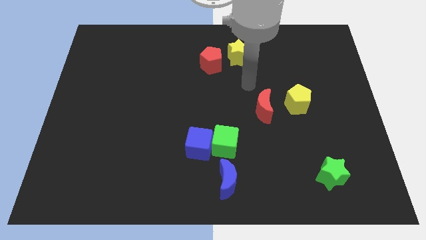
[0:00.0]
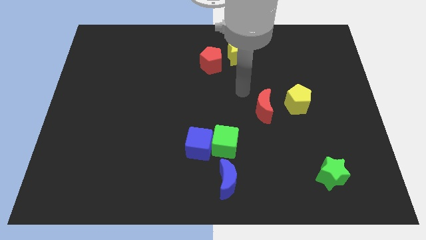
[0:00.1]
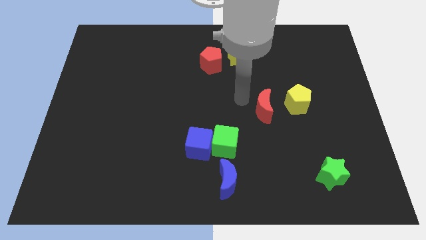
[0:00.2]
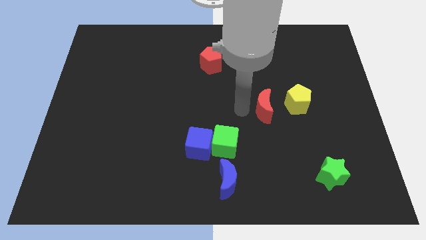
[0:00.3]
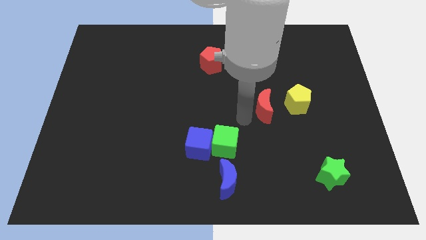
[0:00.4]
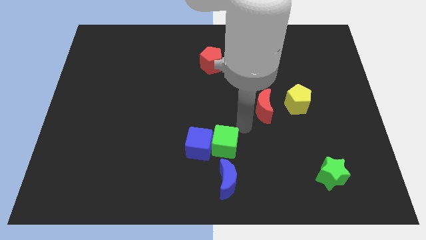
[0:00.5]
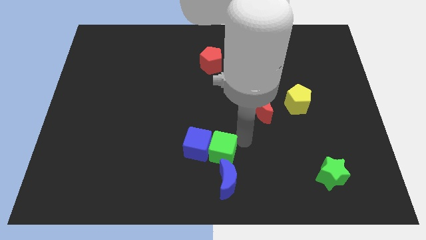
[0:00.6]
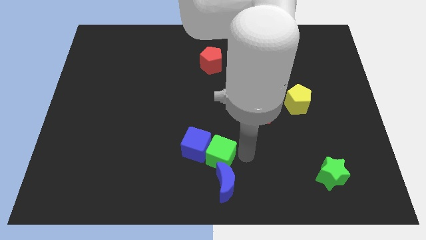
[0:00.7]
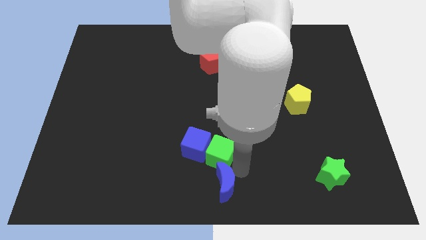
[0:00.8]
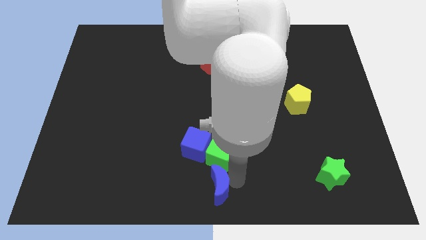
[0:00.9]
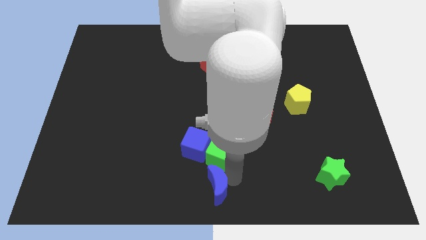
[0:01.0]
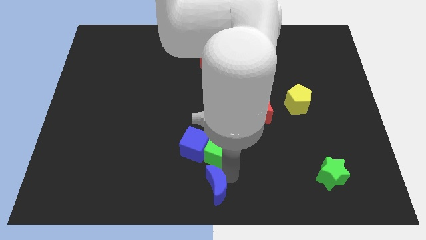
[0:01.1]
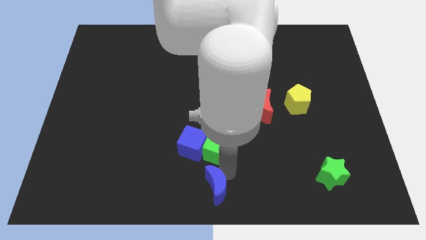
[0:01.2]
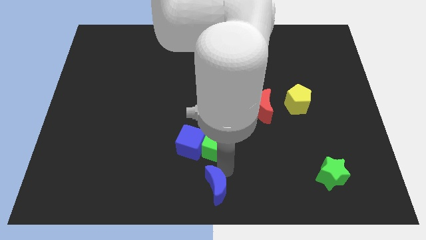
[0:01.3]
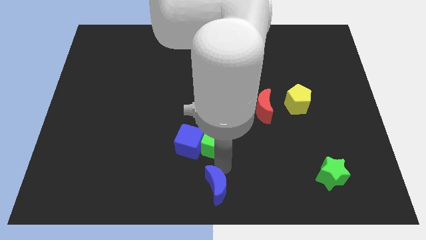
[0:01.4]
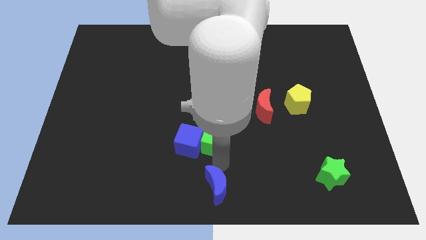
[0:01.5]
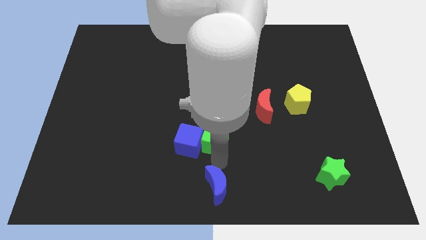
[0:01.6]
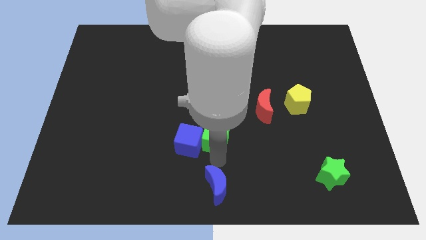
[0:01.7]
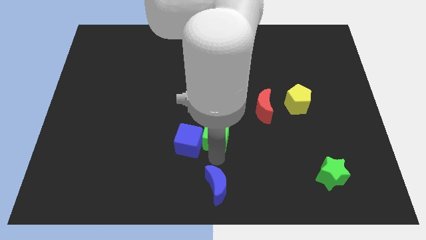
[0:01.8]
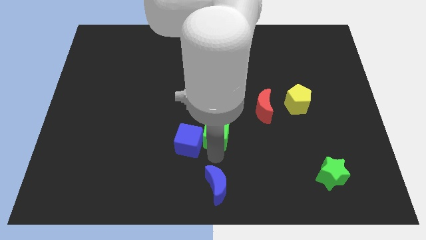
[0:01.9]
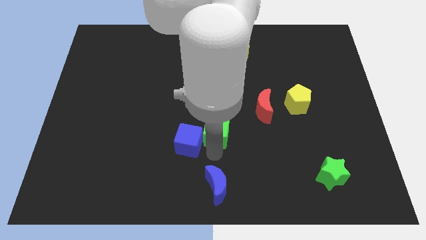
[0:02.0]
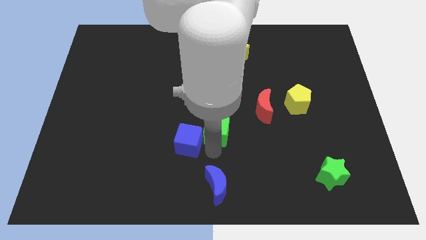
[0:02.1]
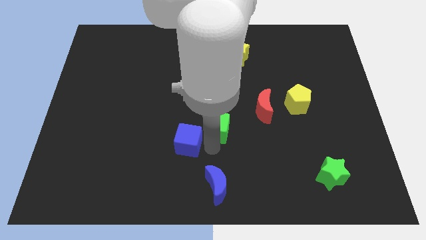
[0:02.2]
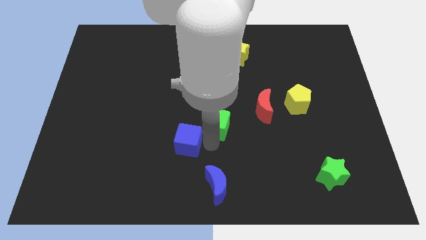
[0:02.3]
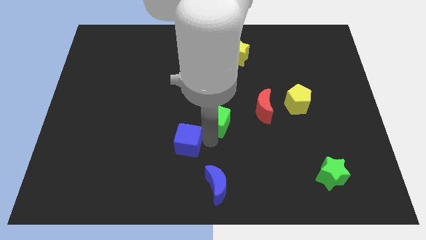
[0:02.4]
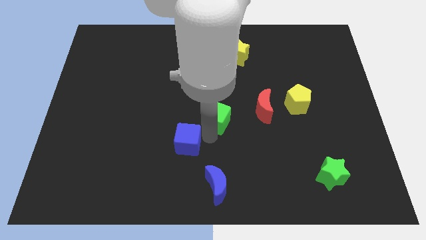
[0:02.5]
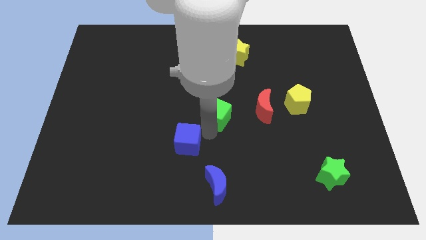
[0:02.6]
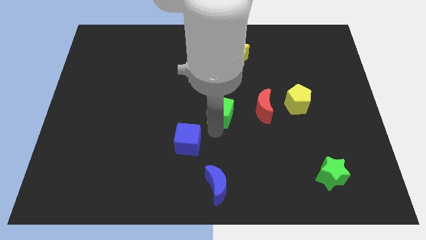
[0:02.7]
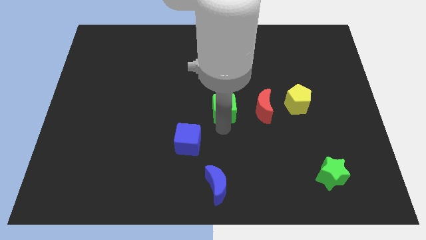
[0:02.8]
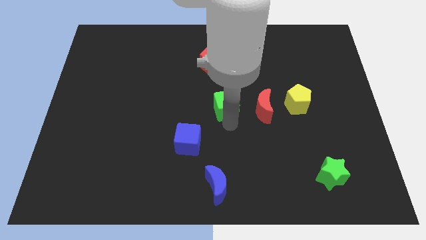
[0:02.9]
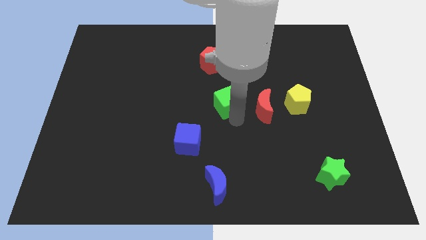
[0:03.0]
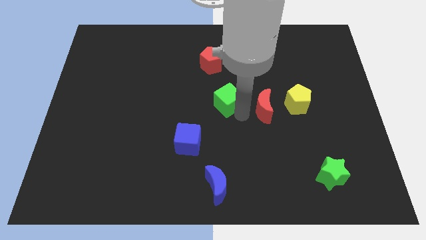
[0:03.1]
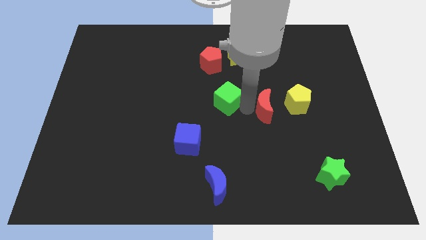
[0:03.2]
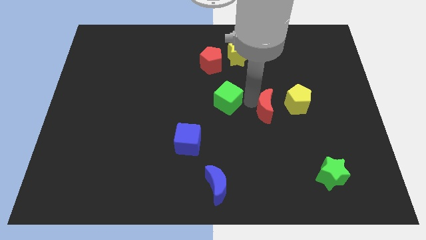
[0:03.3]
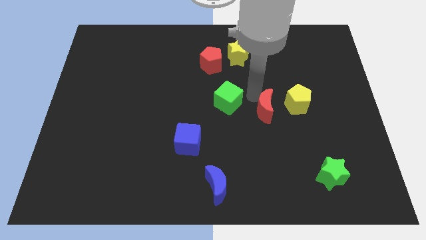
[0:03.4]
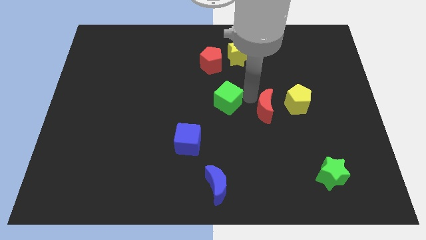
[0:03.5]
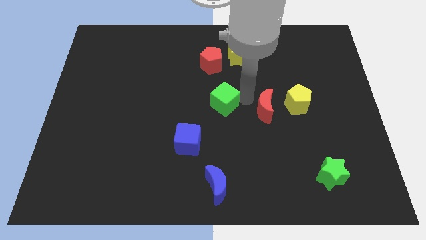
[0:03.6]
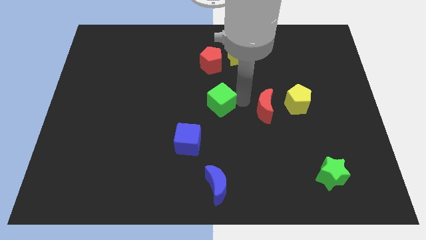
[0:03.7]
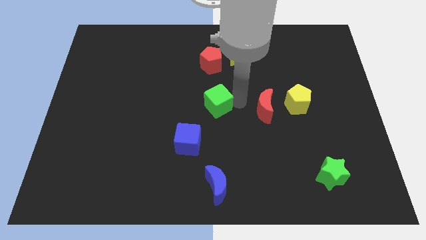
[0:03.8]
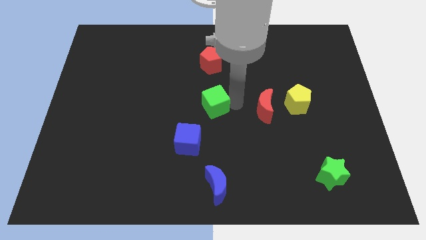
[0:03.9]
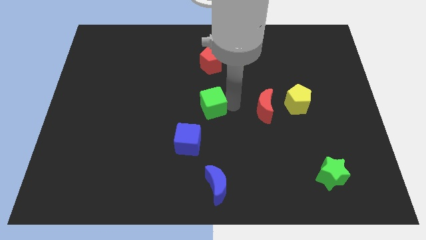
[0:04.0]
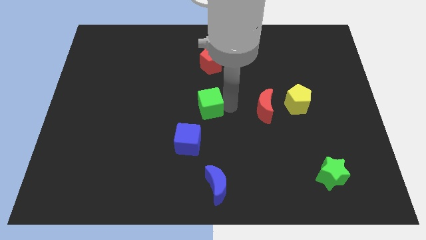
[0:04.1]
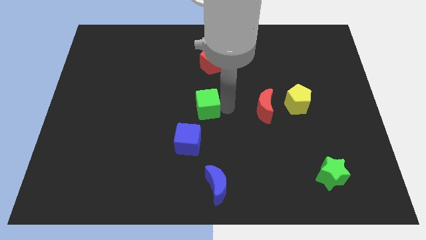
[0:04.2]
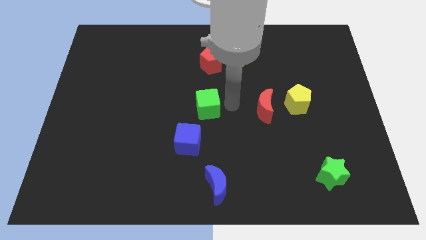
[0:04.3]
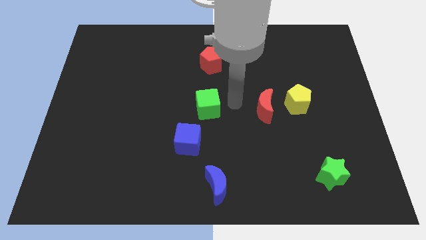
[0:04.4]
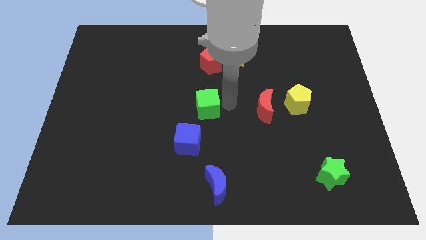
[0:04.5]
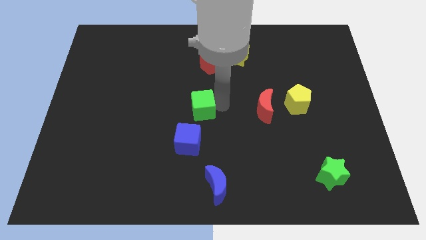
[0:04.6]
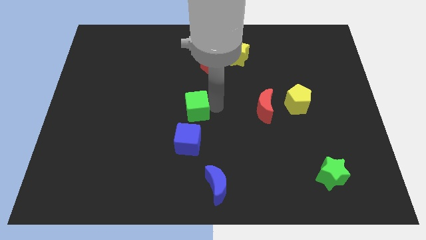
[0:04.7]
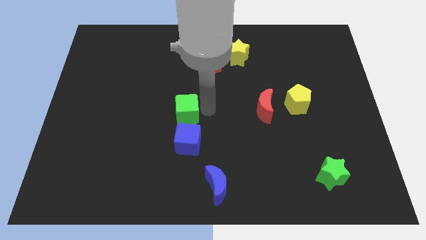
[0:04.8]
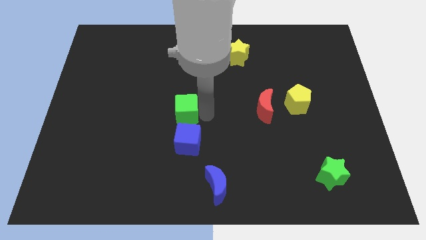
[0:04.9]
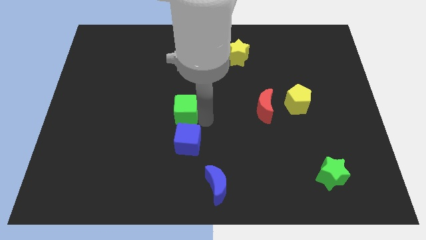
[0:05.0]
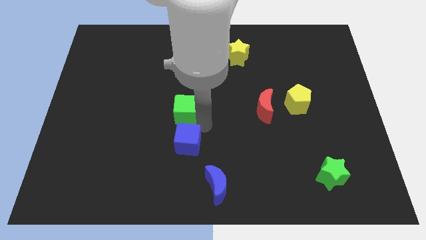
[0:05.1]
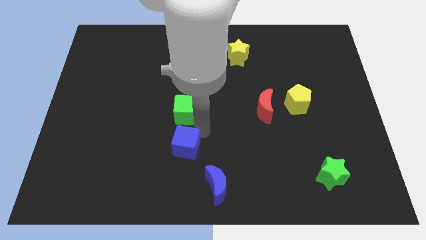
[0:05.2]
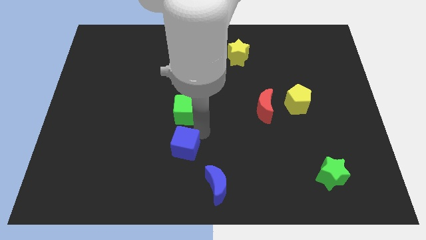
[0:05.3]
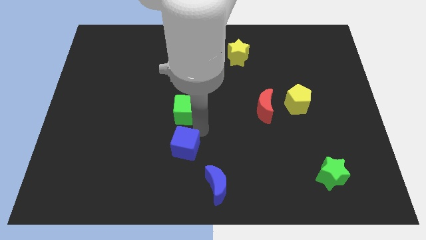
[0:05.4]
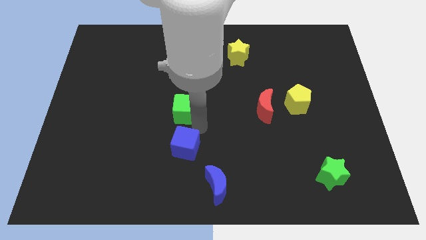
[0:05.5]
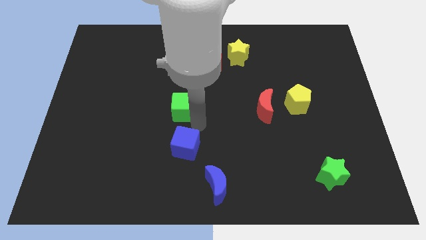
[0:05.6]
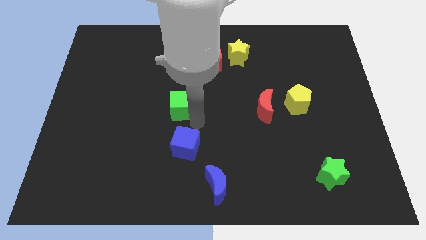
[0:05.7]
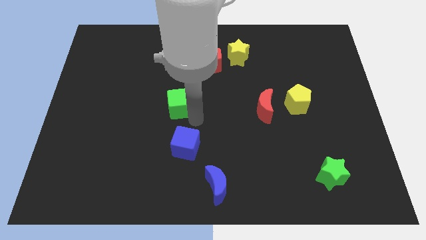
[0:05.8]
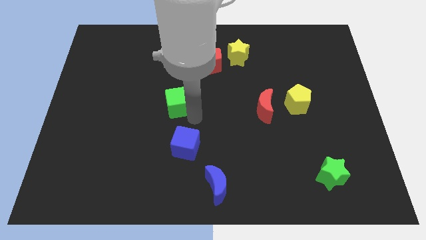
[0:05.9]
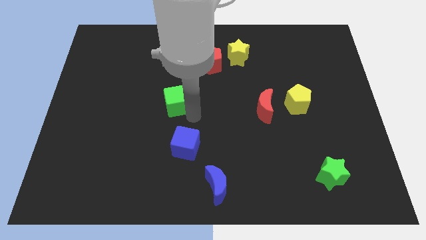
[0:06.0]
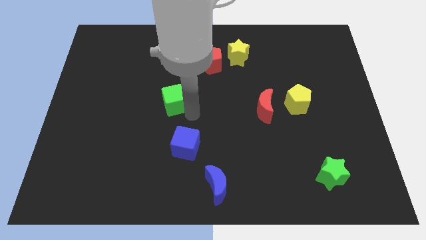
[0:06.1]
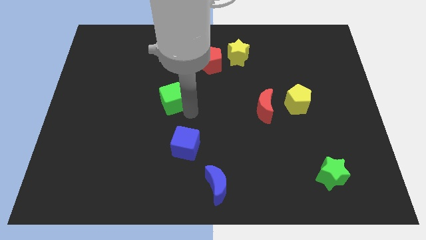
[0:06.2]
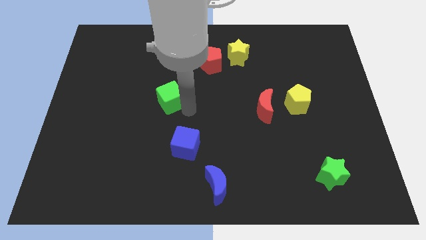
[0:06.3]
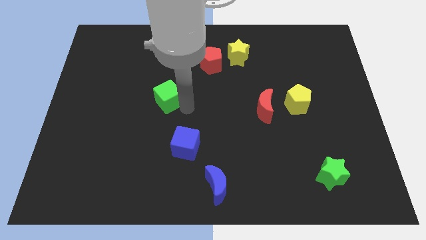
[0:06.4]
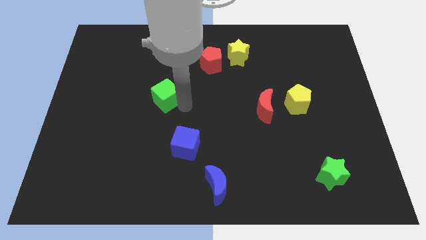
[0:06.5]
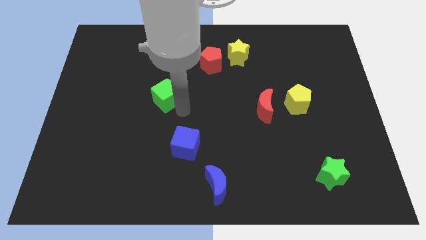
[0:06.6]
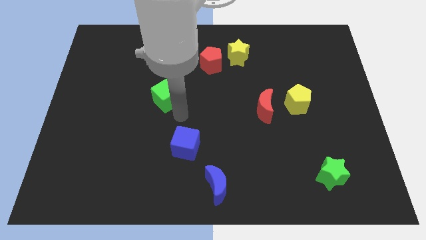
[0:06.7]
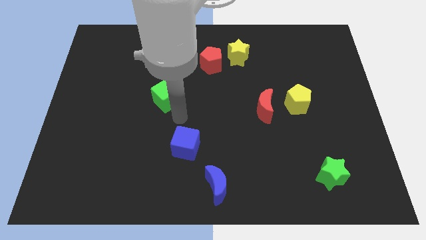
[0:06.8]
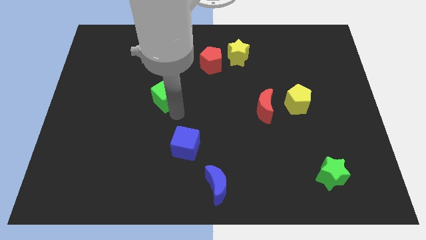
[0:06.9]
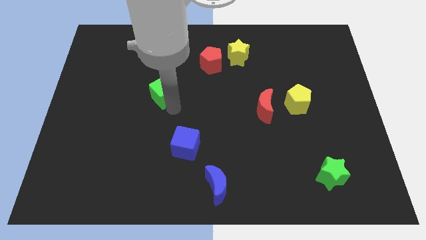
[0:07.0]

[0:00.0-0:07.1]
push the green cube up and to the left diagonally

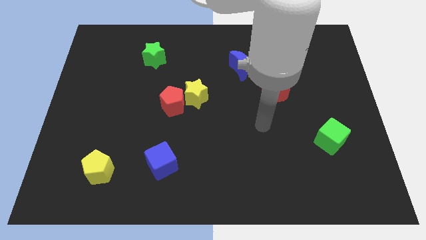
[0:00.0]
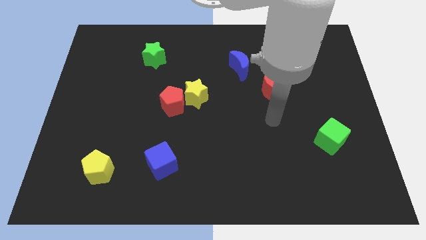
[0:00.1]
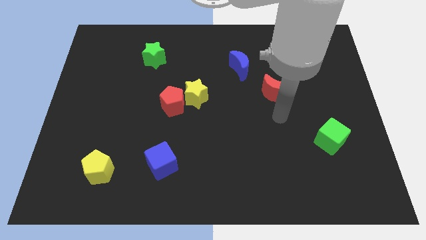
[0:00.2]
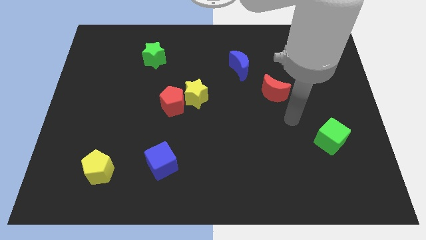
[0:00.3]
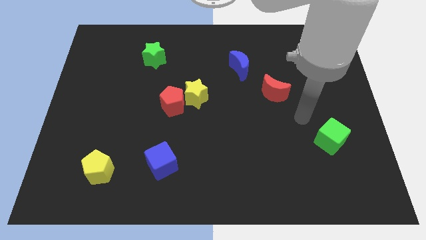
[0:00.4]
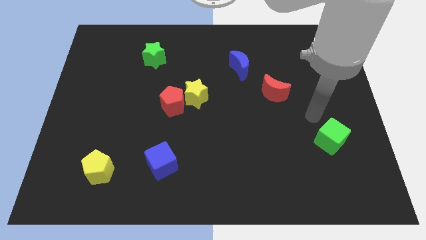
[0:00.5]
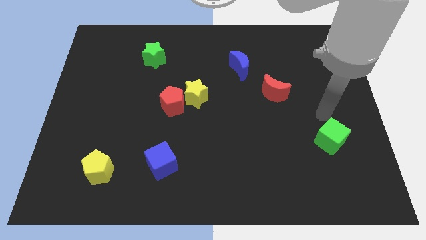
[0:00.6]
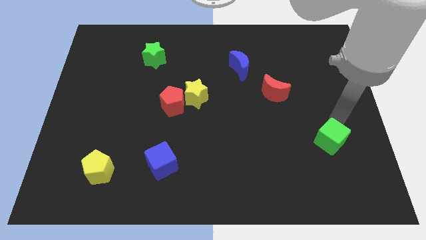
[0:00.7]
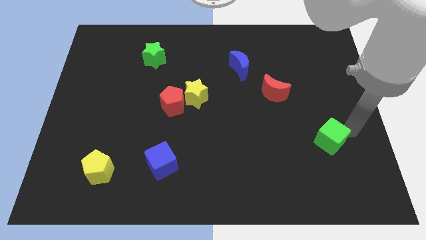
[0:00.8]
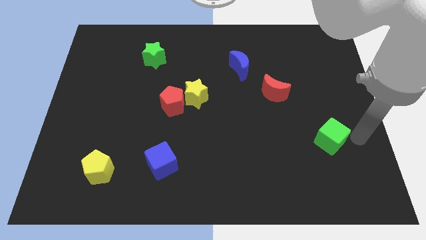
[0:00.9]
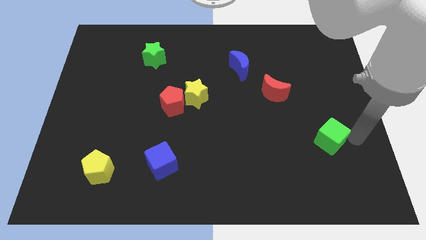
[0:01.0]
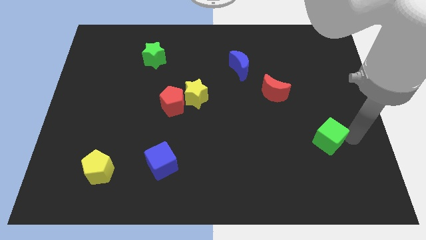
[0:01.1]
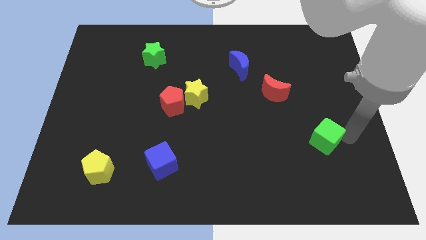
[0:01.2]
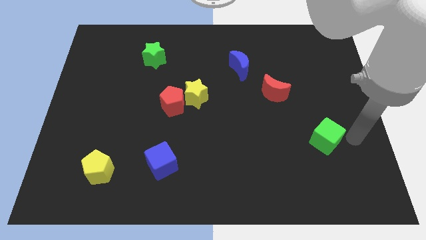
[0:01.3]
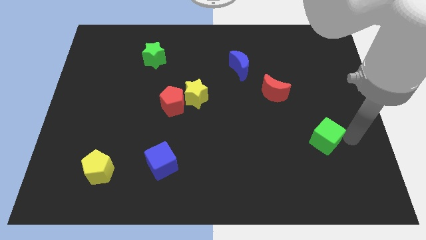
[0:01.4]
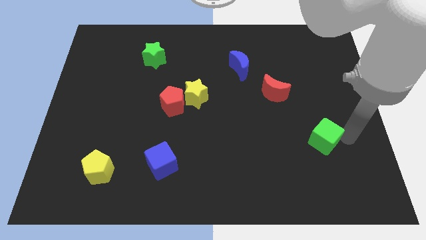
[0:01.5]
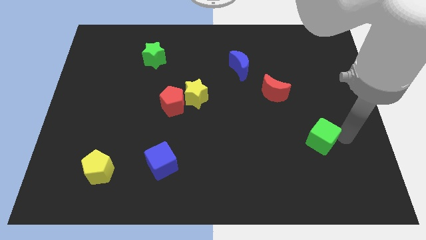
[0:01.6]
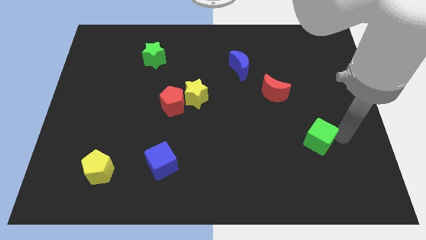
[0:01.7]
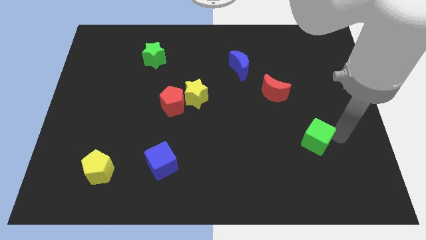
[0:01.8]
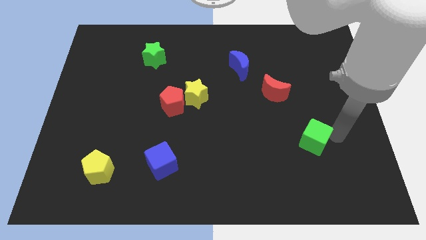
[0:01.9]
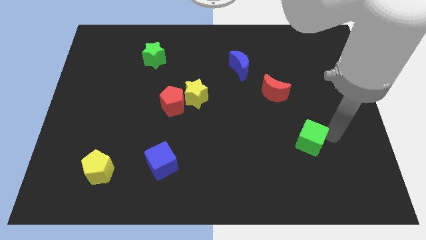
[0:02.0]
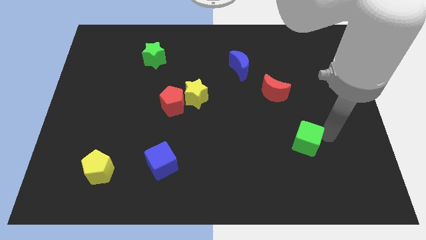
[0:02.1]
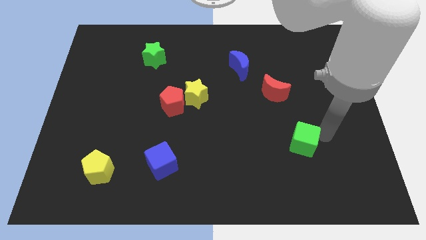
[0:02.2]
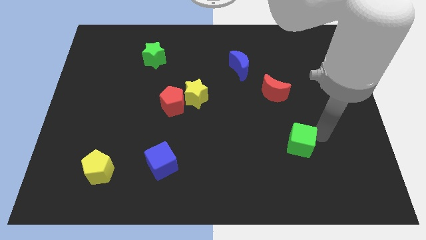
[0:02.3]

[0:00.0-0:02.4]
slide the green cube to the left slightly
